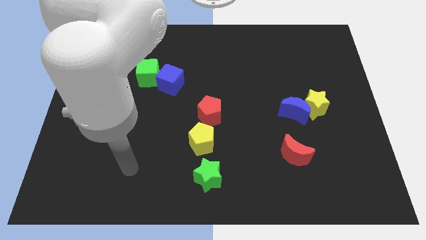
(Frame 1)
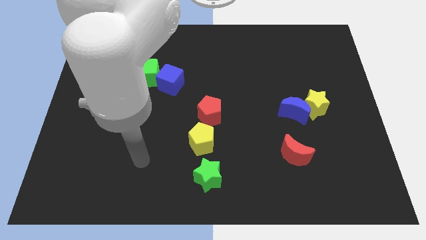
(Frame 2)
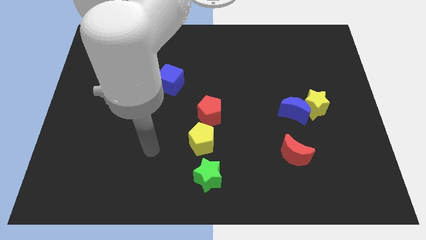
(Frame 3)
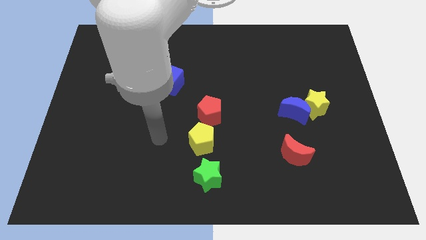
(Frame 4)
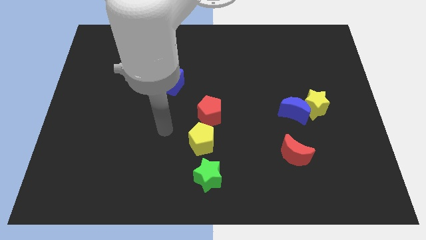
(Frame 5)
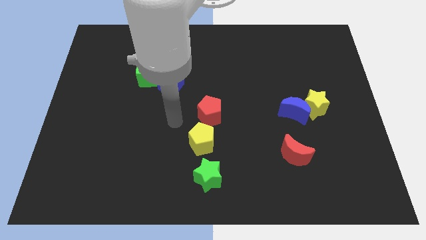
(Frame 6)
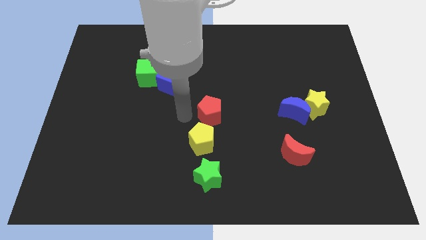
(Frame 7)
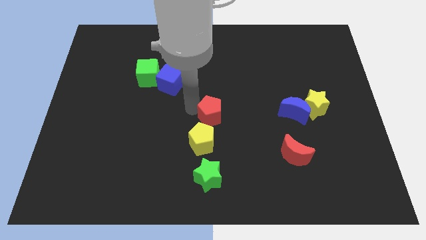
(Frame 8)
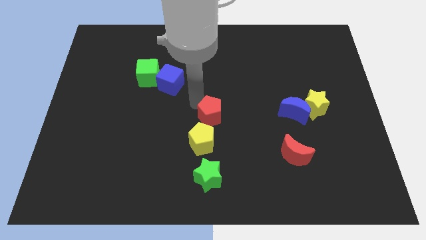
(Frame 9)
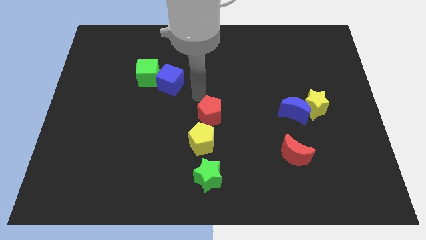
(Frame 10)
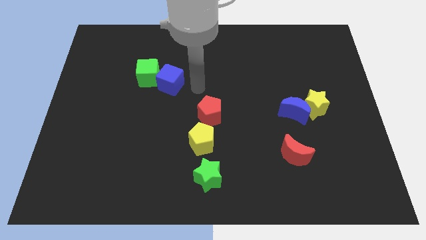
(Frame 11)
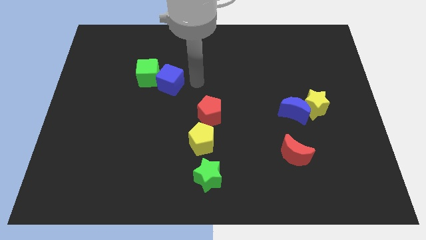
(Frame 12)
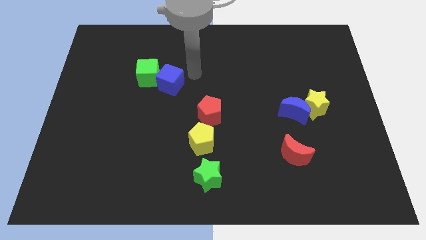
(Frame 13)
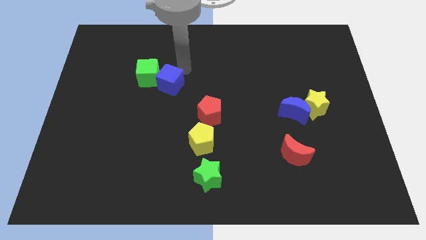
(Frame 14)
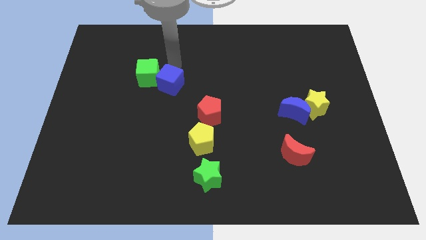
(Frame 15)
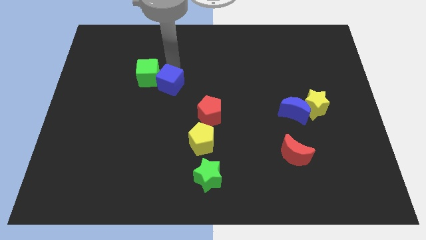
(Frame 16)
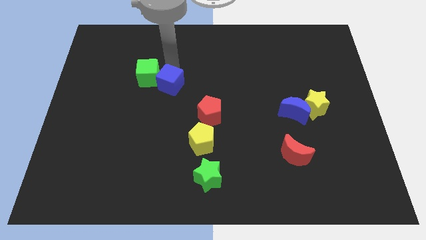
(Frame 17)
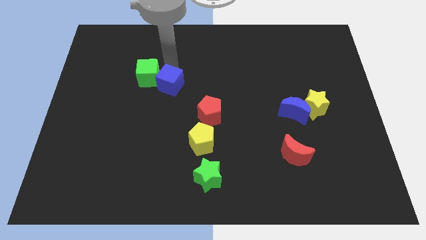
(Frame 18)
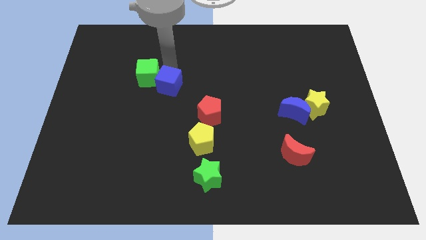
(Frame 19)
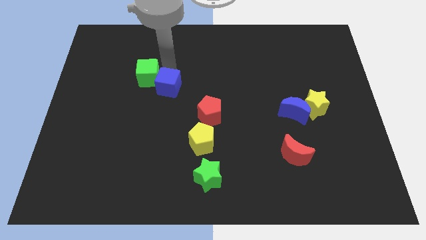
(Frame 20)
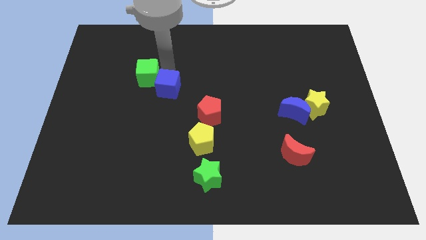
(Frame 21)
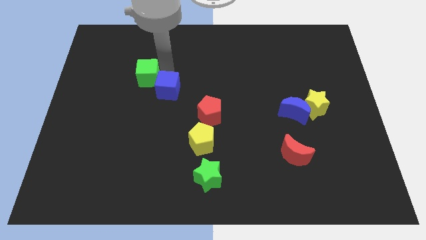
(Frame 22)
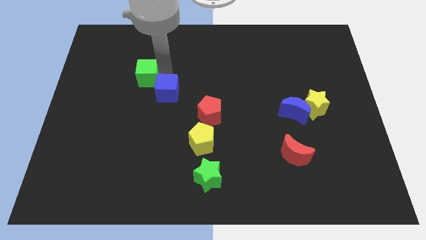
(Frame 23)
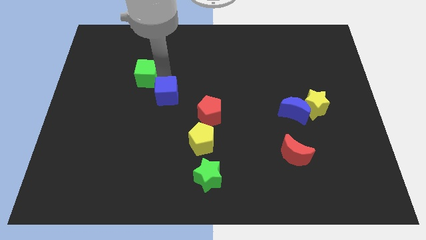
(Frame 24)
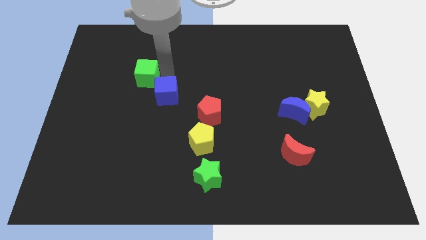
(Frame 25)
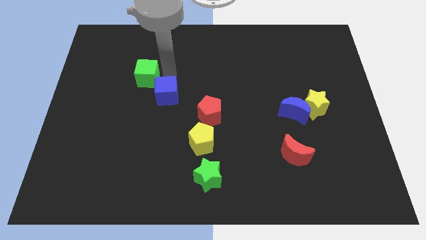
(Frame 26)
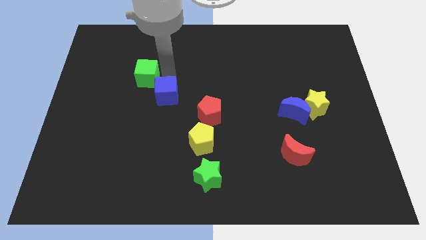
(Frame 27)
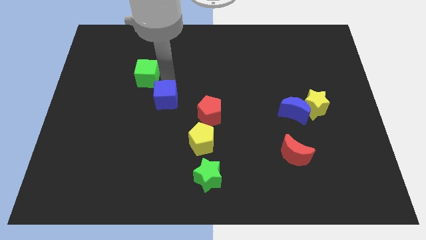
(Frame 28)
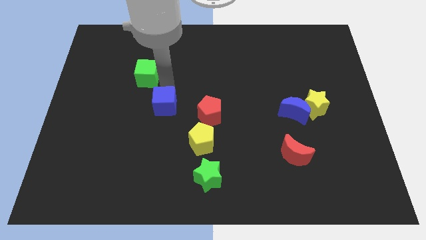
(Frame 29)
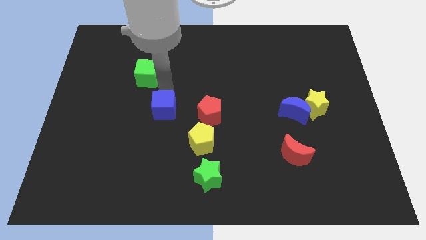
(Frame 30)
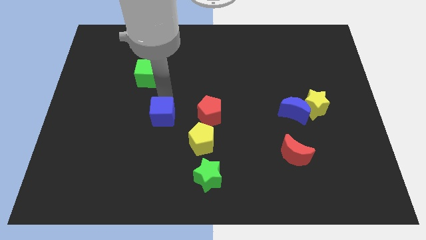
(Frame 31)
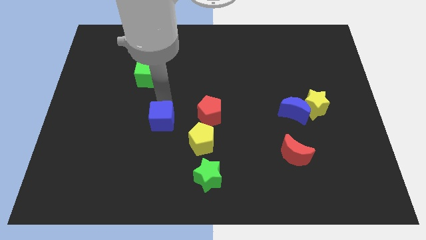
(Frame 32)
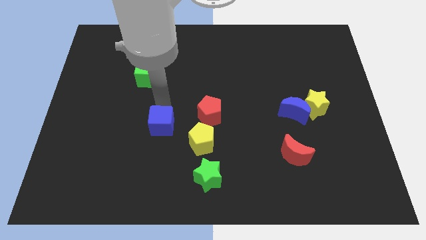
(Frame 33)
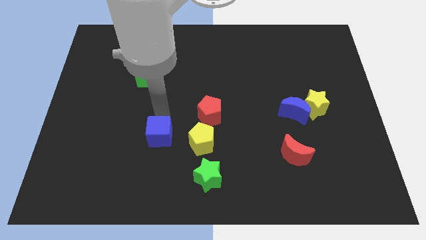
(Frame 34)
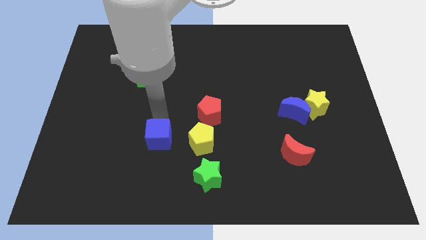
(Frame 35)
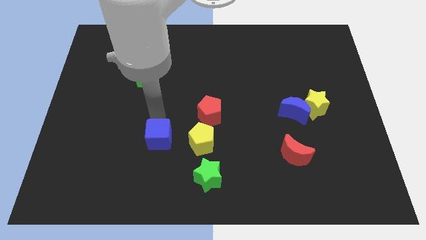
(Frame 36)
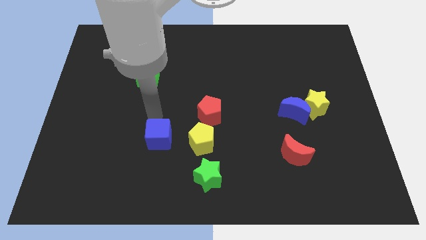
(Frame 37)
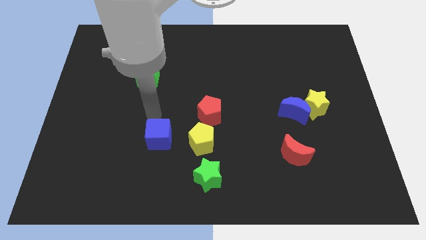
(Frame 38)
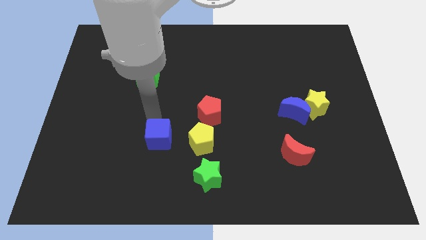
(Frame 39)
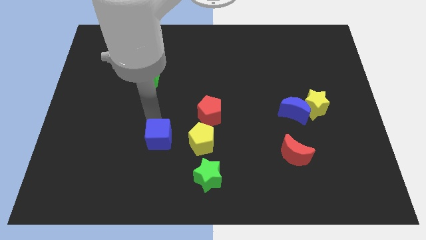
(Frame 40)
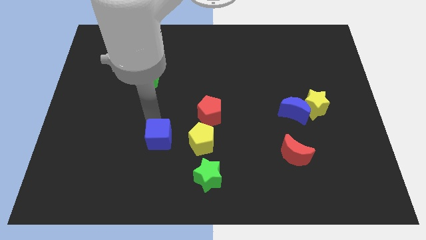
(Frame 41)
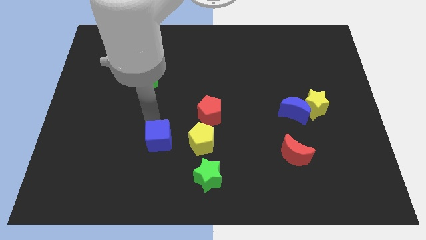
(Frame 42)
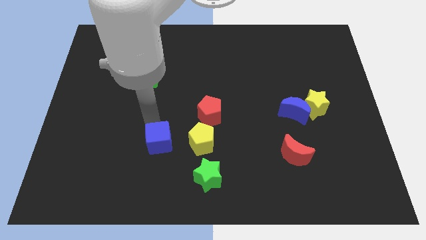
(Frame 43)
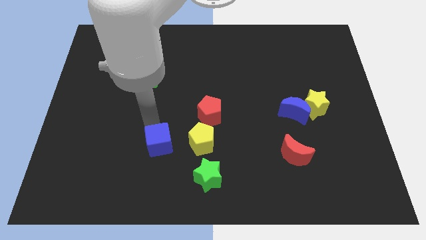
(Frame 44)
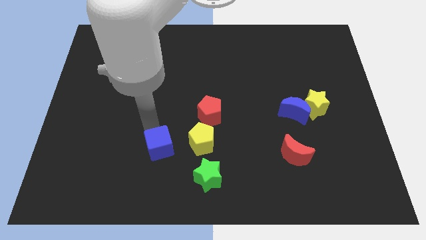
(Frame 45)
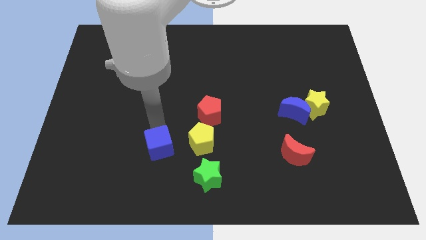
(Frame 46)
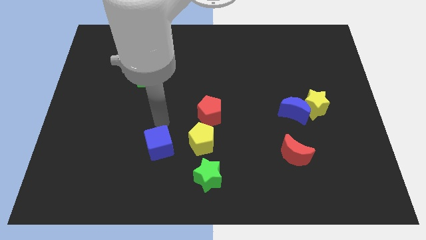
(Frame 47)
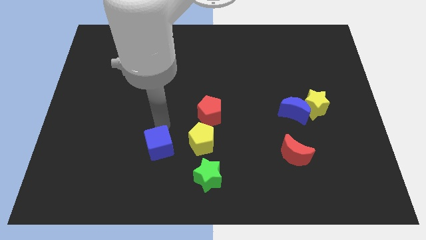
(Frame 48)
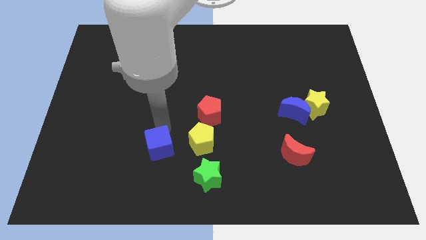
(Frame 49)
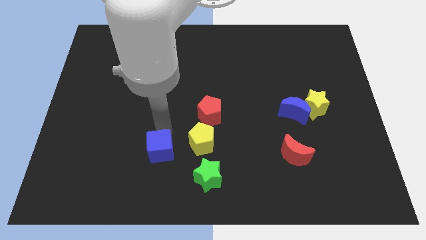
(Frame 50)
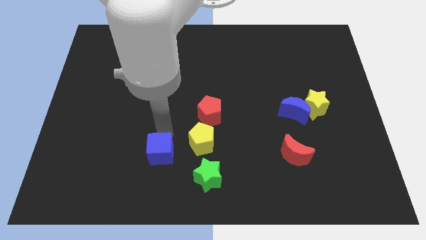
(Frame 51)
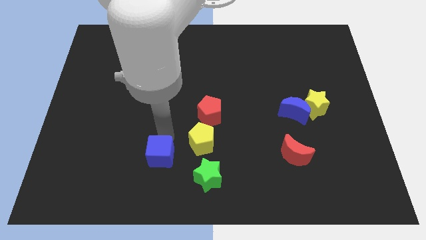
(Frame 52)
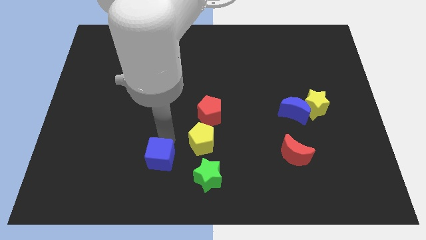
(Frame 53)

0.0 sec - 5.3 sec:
slide the blue cube to the left side of the green star

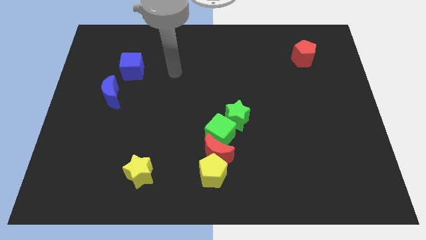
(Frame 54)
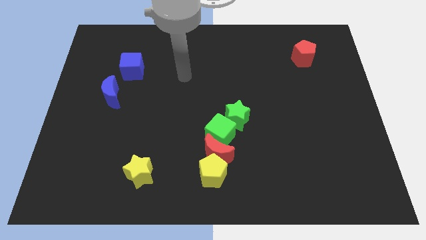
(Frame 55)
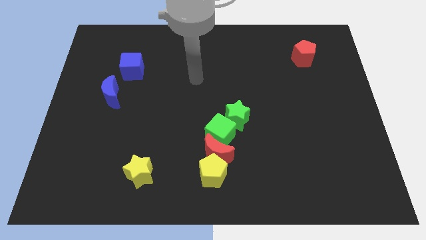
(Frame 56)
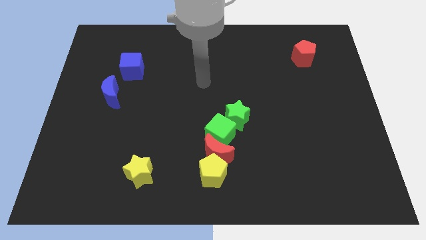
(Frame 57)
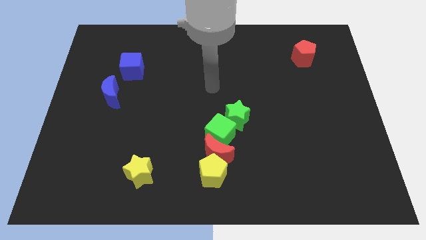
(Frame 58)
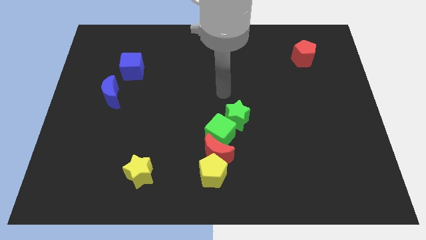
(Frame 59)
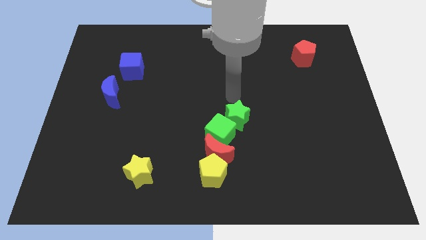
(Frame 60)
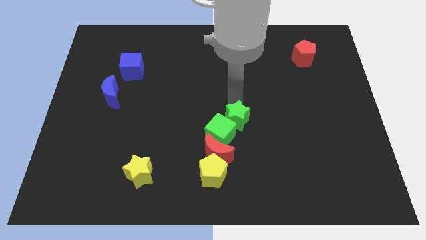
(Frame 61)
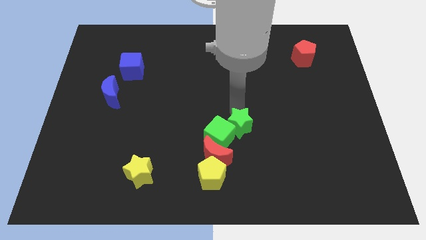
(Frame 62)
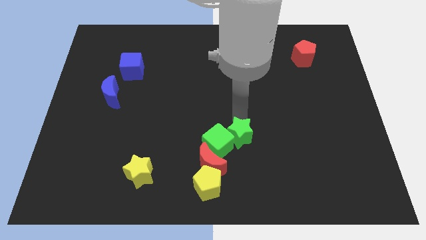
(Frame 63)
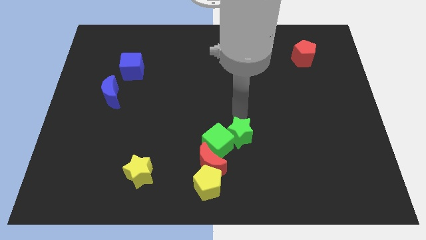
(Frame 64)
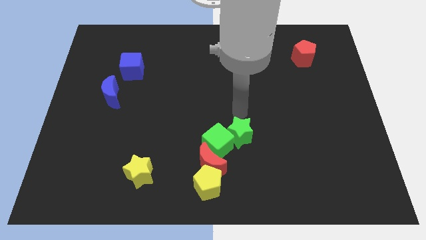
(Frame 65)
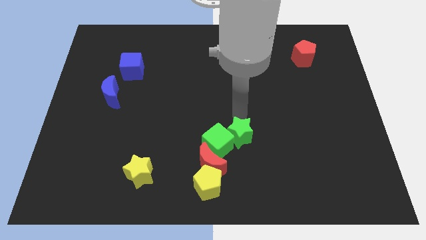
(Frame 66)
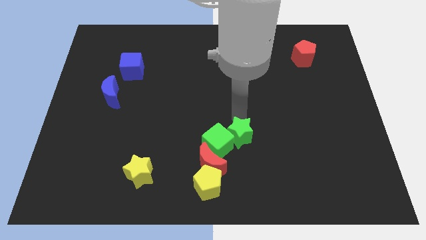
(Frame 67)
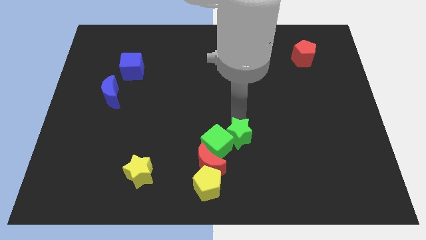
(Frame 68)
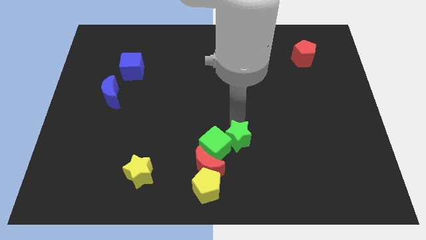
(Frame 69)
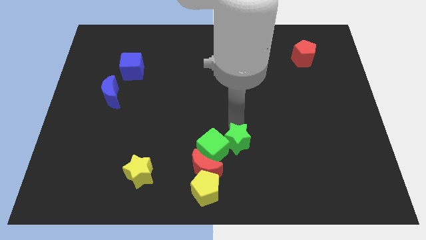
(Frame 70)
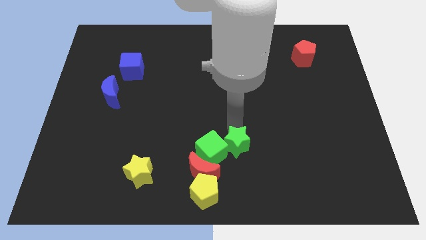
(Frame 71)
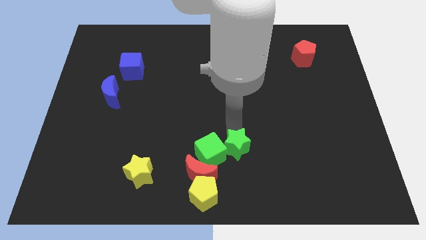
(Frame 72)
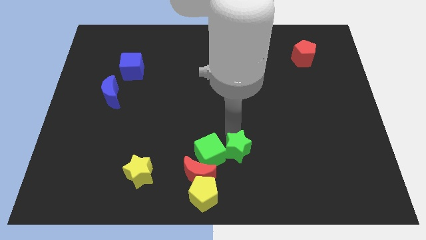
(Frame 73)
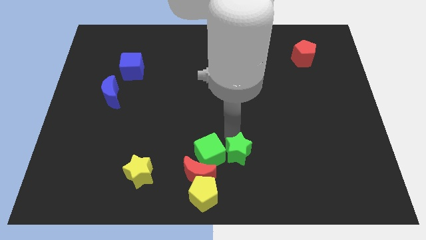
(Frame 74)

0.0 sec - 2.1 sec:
push the green star diagonally down and to the right of the green cube
